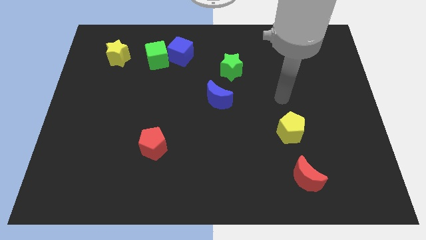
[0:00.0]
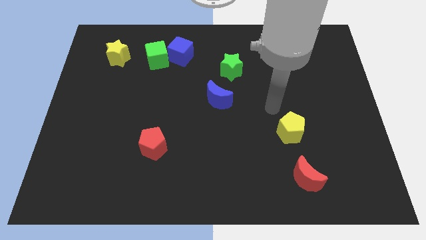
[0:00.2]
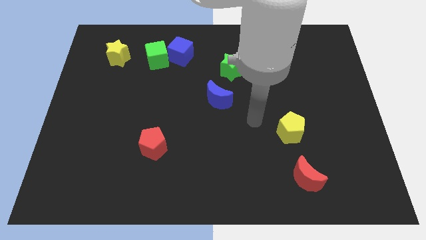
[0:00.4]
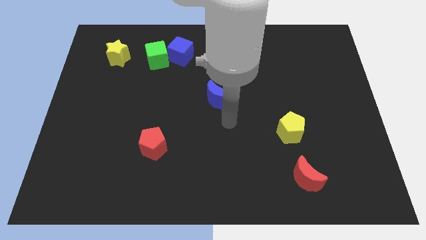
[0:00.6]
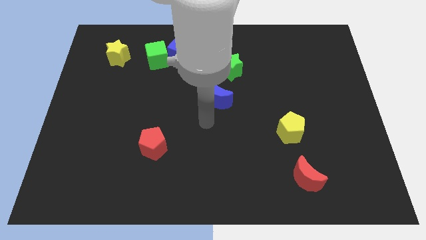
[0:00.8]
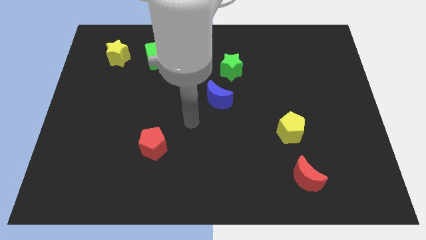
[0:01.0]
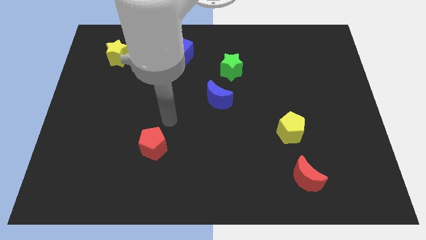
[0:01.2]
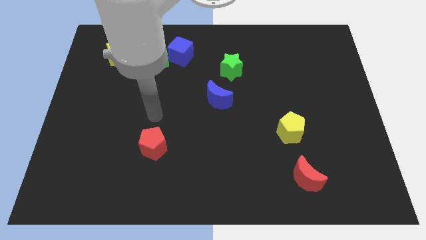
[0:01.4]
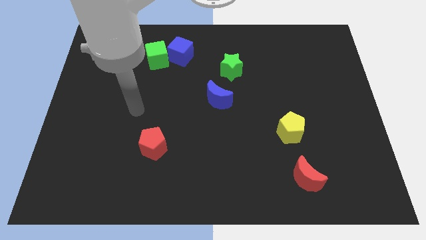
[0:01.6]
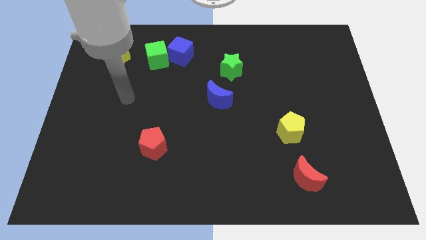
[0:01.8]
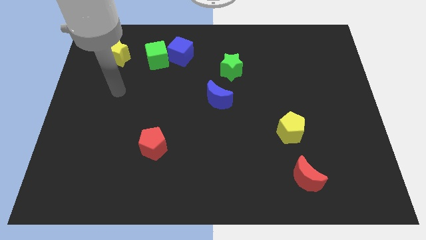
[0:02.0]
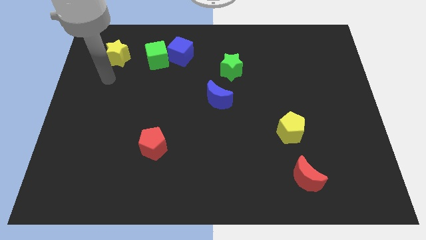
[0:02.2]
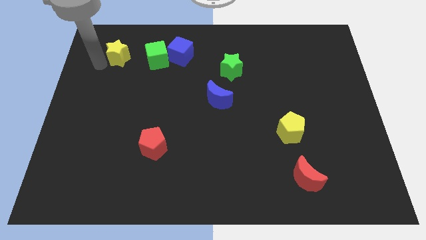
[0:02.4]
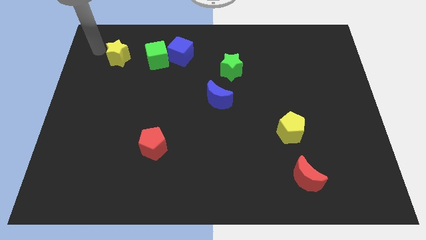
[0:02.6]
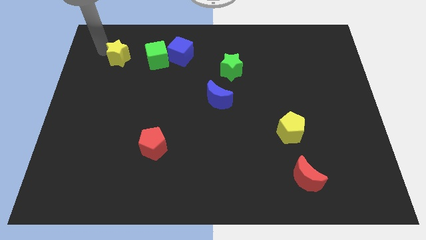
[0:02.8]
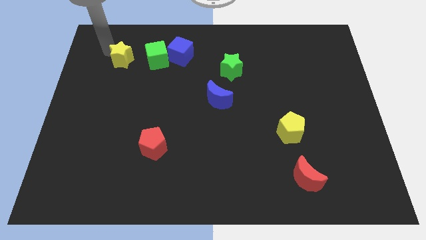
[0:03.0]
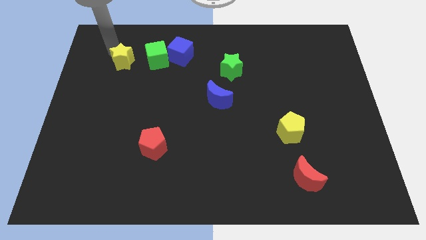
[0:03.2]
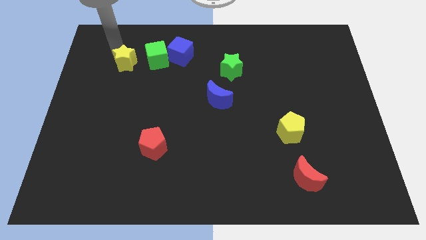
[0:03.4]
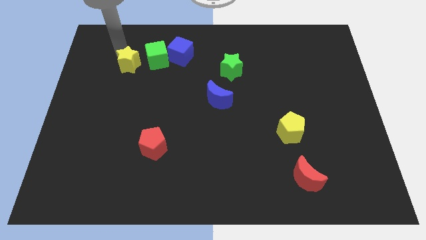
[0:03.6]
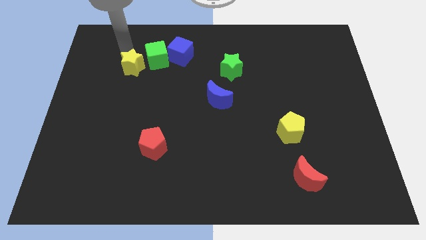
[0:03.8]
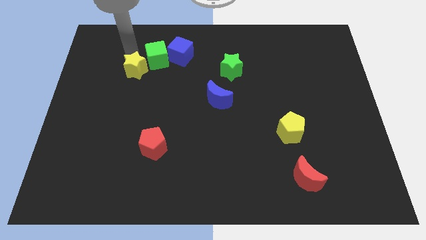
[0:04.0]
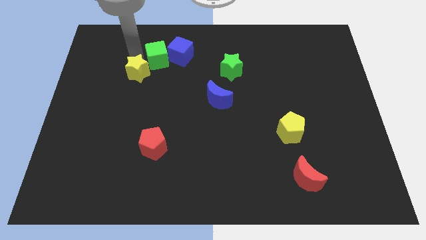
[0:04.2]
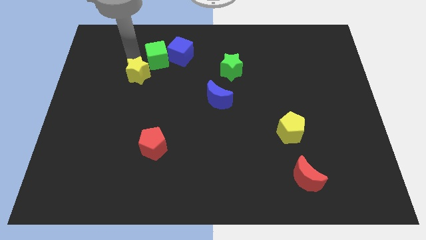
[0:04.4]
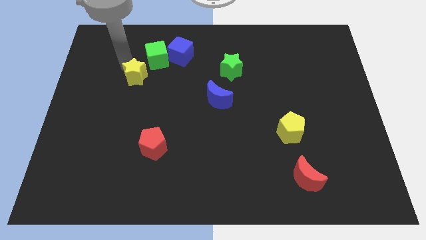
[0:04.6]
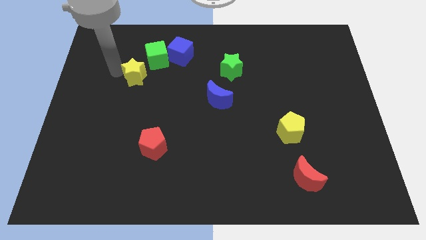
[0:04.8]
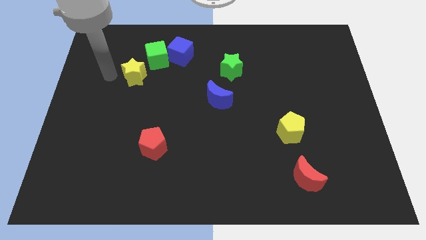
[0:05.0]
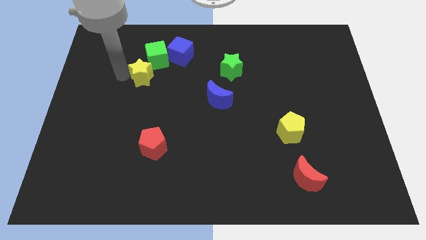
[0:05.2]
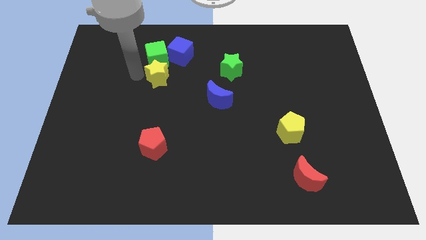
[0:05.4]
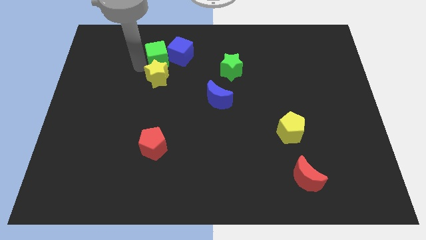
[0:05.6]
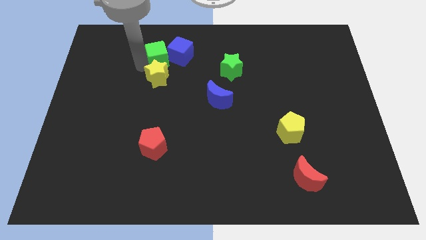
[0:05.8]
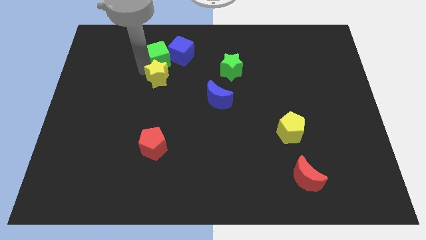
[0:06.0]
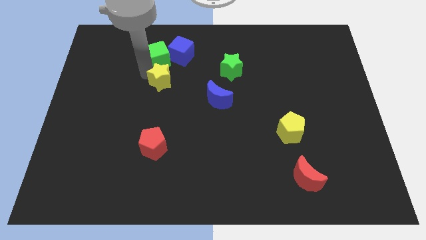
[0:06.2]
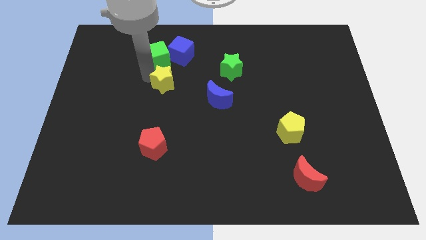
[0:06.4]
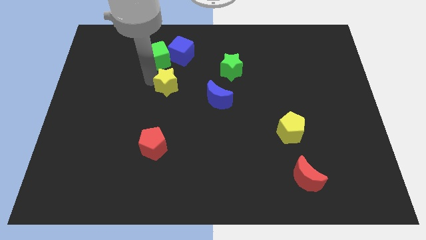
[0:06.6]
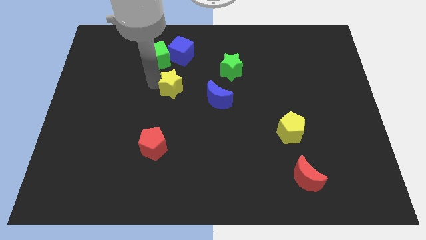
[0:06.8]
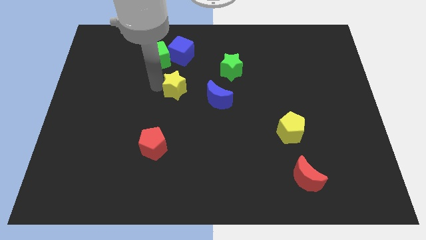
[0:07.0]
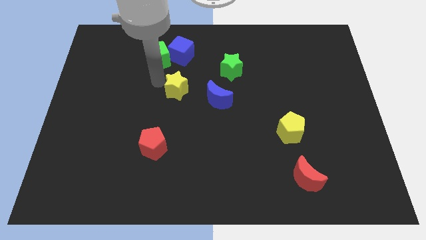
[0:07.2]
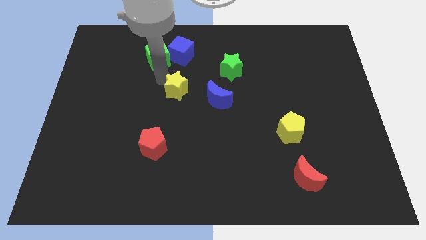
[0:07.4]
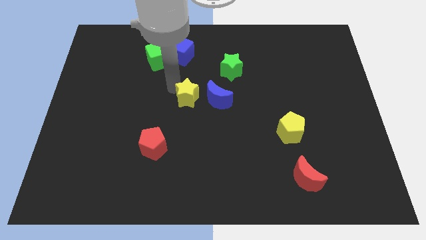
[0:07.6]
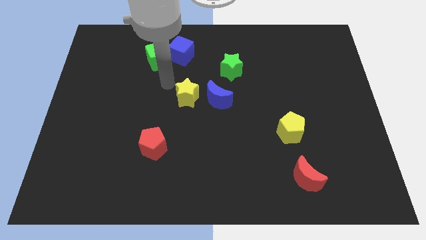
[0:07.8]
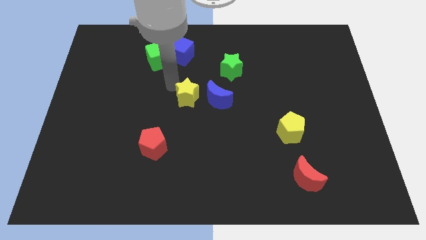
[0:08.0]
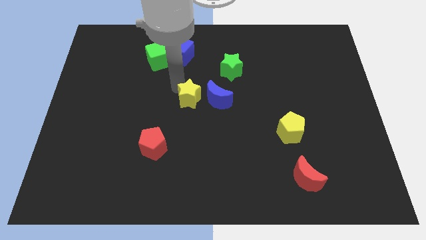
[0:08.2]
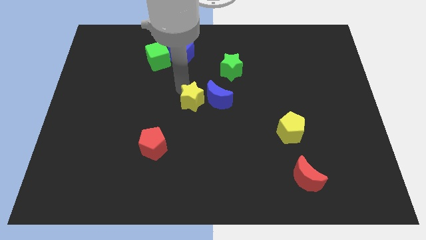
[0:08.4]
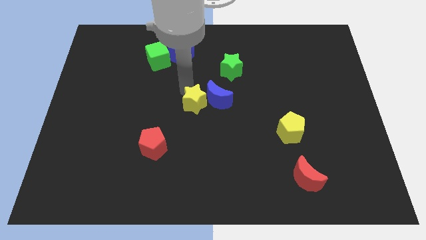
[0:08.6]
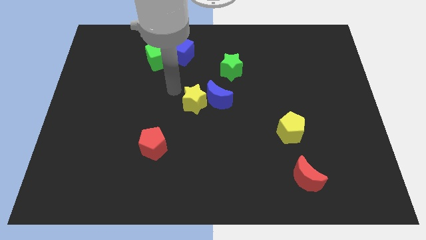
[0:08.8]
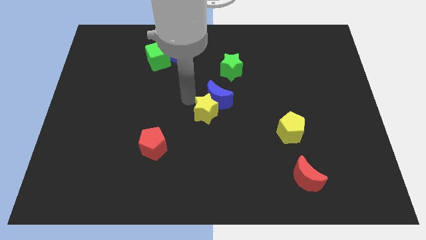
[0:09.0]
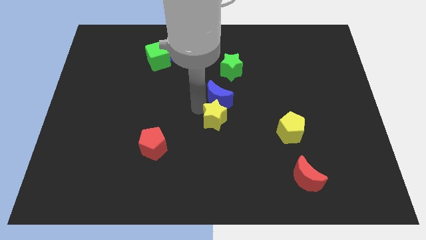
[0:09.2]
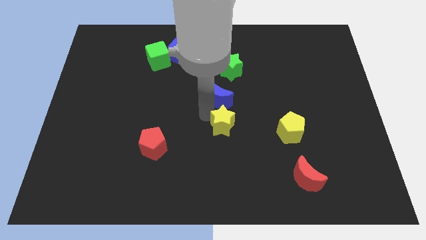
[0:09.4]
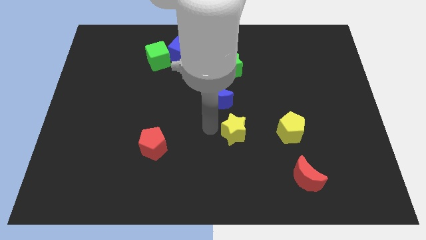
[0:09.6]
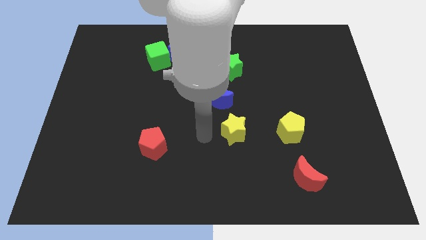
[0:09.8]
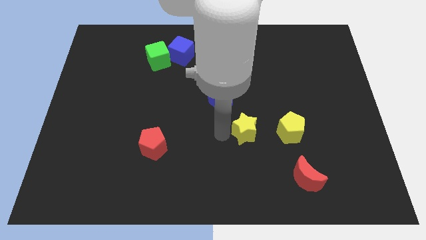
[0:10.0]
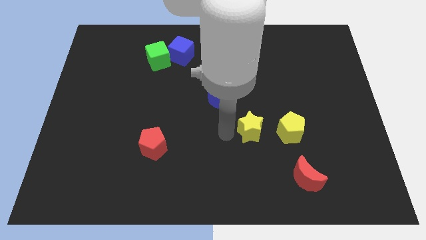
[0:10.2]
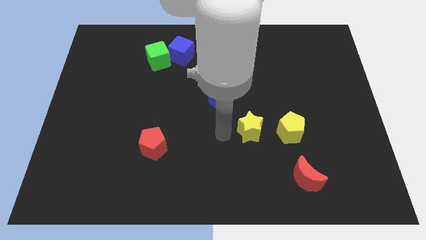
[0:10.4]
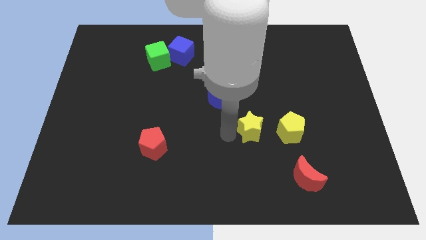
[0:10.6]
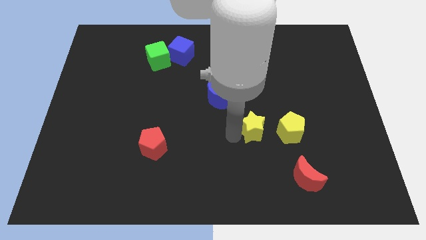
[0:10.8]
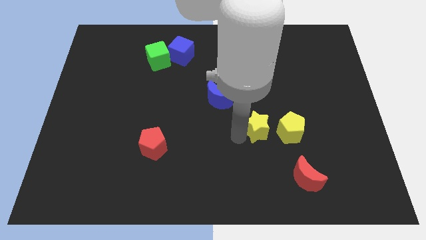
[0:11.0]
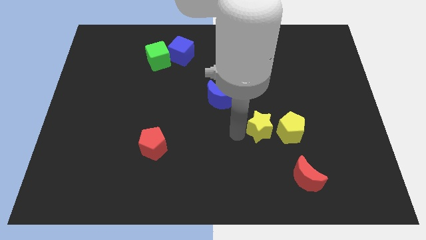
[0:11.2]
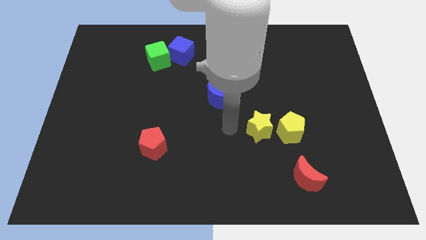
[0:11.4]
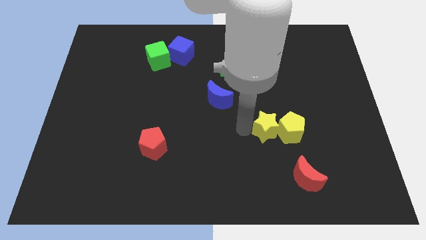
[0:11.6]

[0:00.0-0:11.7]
move the yellow star close to the yellow pentagon

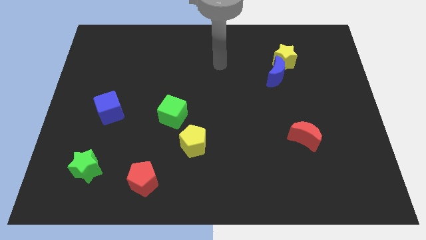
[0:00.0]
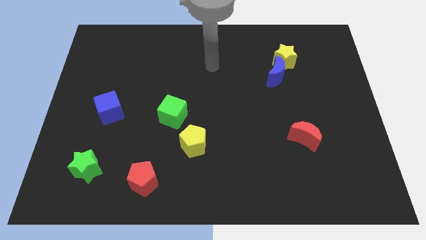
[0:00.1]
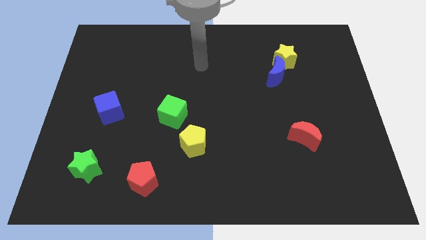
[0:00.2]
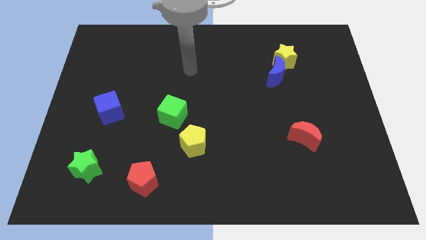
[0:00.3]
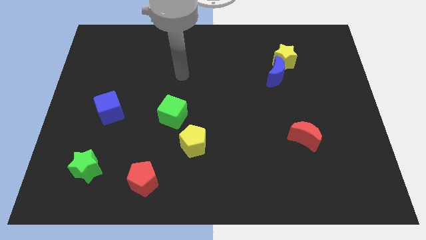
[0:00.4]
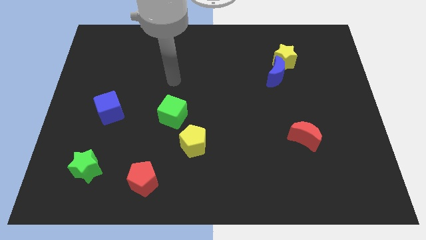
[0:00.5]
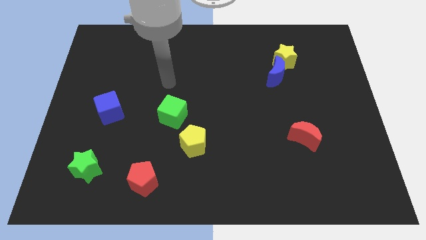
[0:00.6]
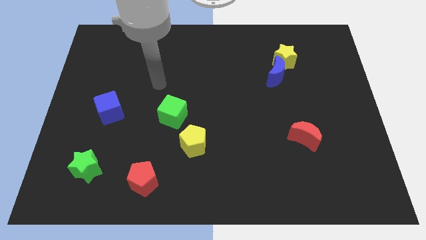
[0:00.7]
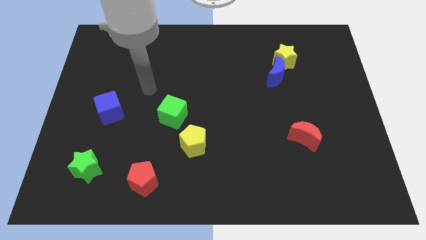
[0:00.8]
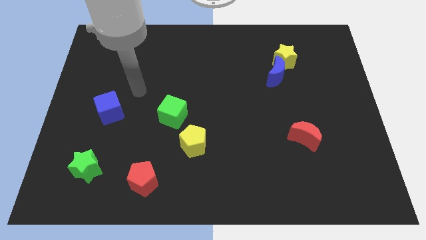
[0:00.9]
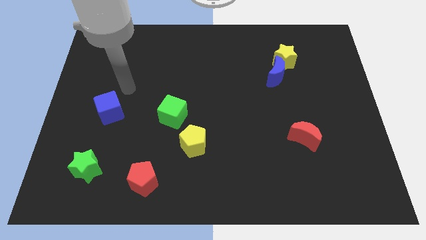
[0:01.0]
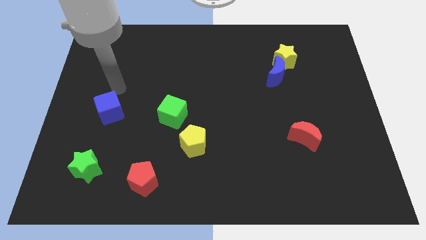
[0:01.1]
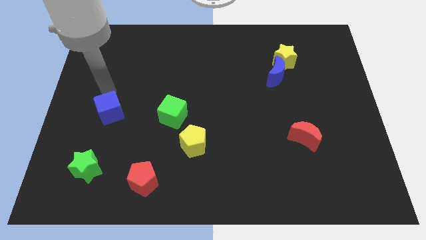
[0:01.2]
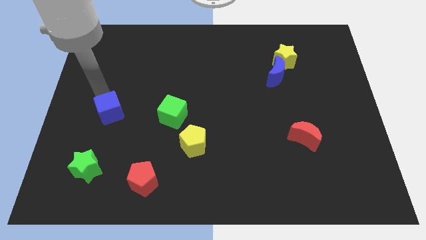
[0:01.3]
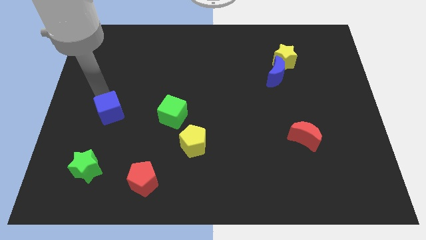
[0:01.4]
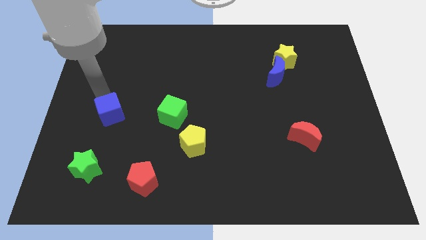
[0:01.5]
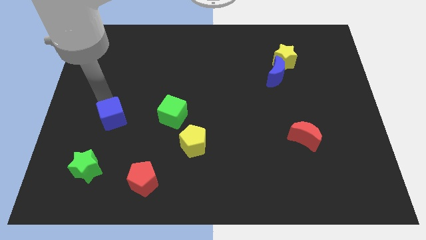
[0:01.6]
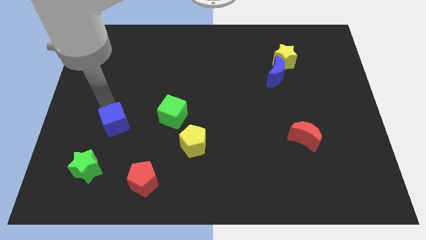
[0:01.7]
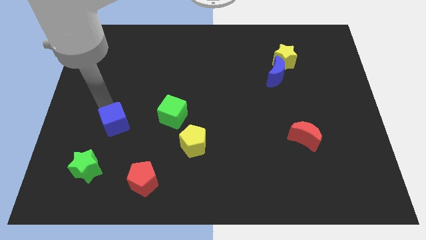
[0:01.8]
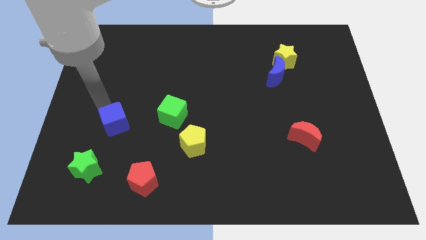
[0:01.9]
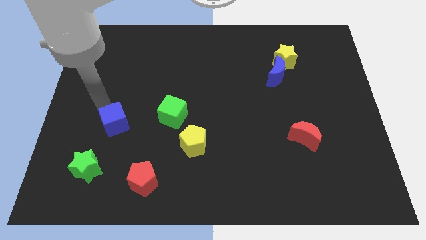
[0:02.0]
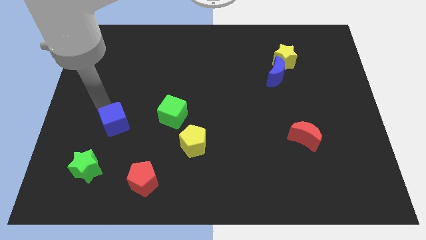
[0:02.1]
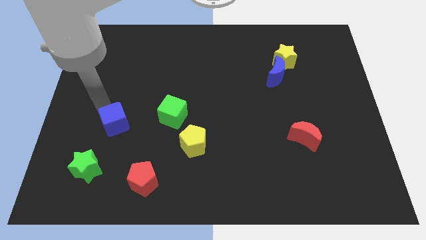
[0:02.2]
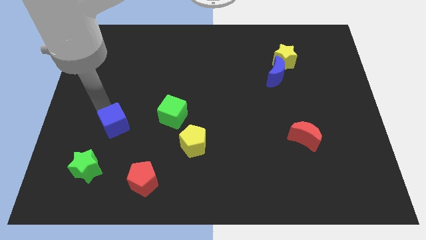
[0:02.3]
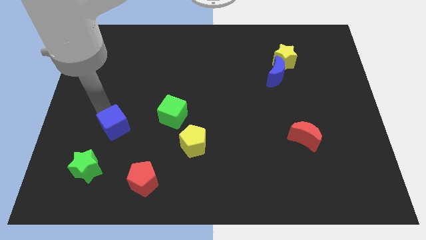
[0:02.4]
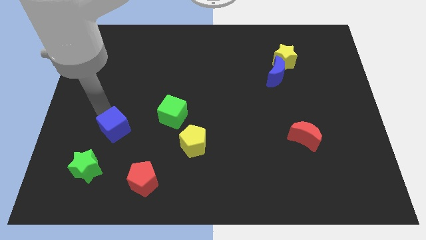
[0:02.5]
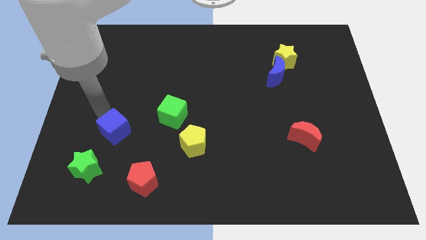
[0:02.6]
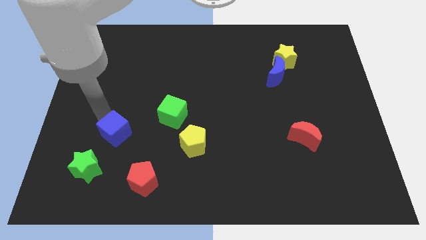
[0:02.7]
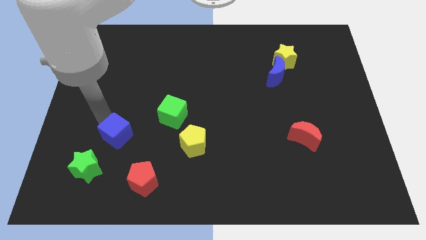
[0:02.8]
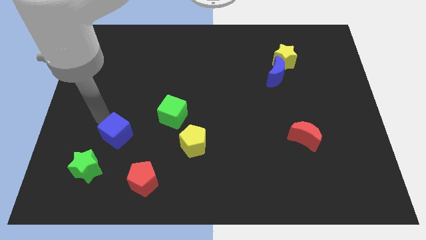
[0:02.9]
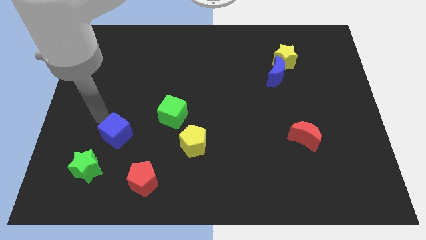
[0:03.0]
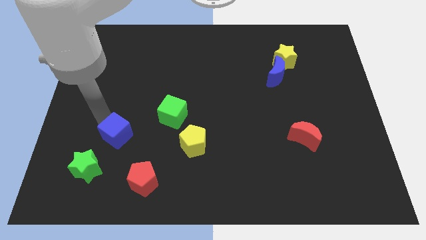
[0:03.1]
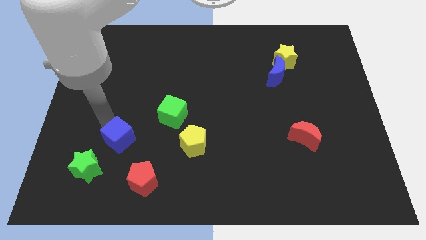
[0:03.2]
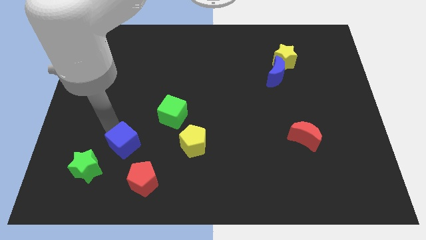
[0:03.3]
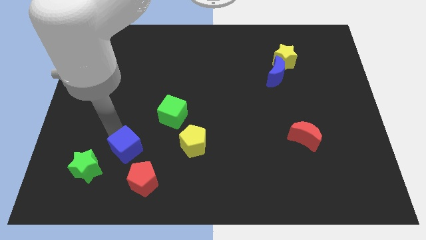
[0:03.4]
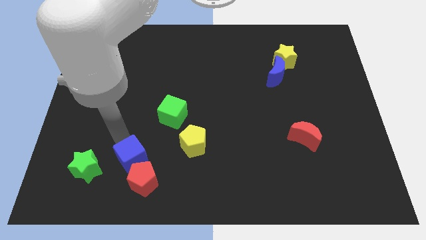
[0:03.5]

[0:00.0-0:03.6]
move the blue cube close to the red pentagon
